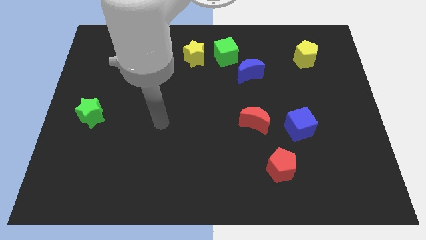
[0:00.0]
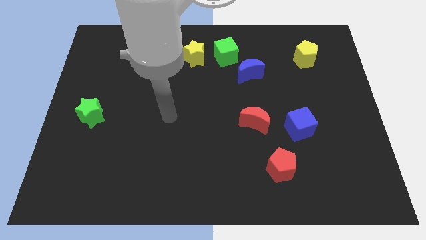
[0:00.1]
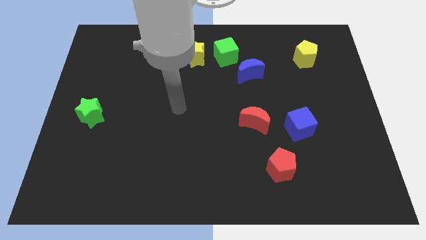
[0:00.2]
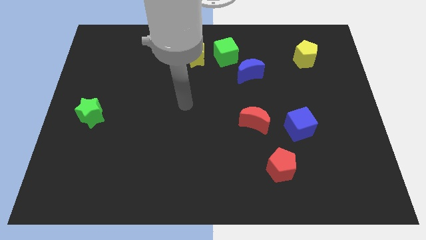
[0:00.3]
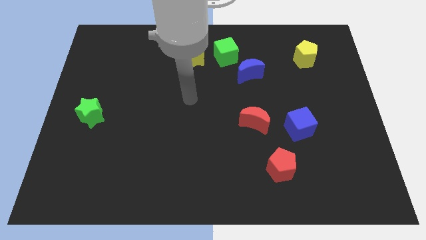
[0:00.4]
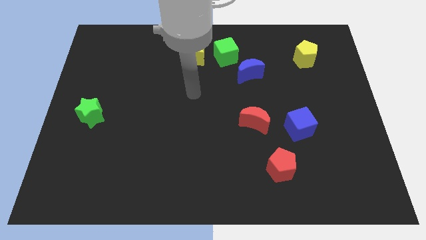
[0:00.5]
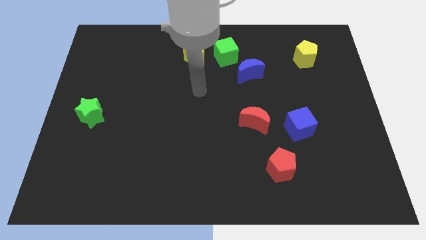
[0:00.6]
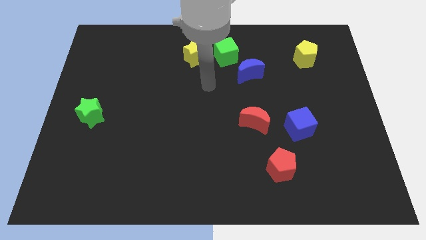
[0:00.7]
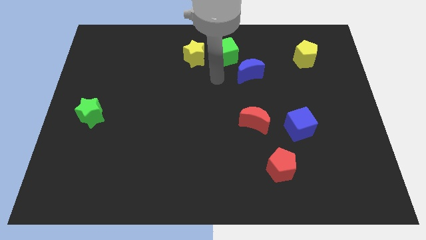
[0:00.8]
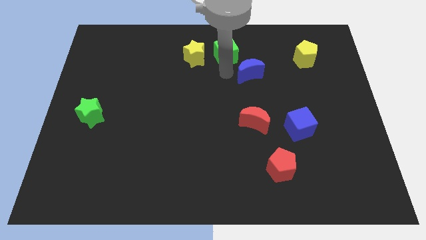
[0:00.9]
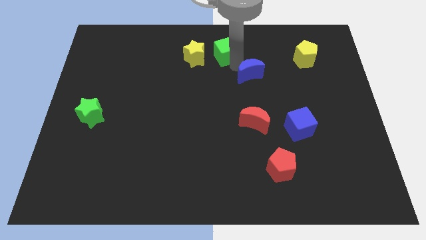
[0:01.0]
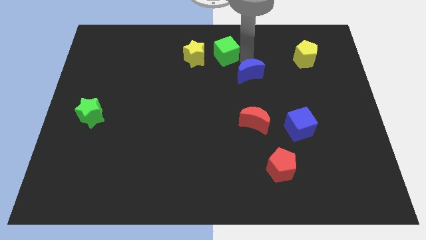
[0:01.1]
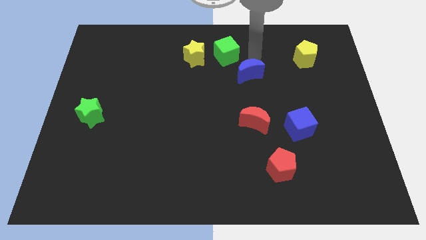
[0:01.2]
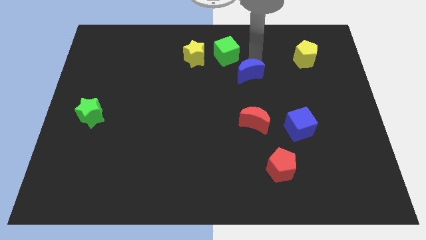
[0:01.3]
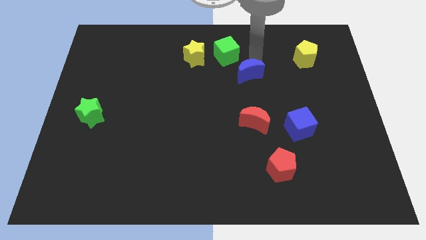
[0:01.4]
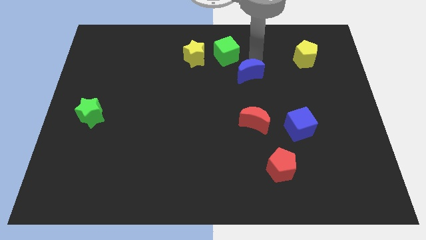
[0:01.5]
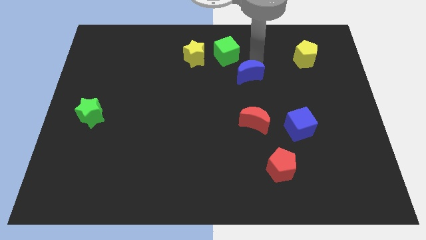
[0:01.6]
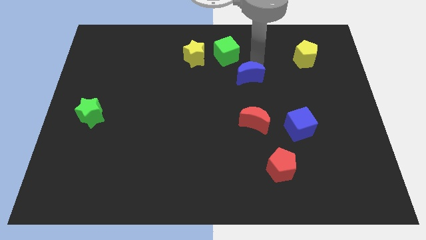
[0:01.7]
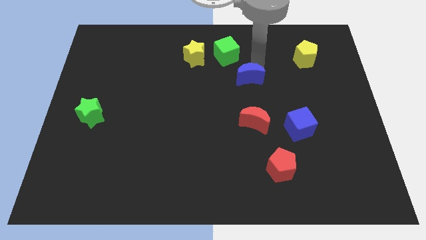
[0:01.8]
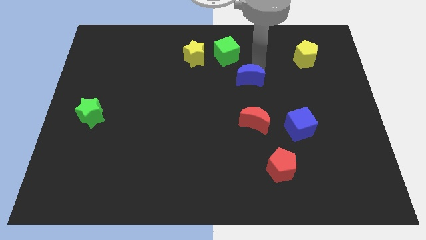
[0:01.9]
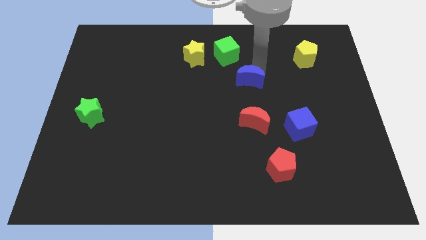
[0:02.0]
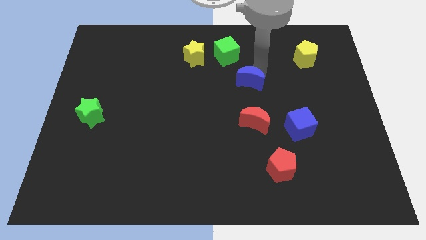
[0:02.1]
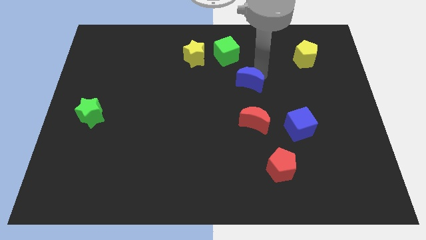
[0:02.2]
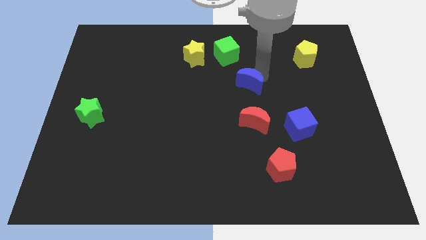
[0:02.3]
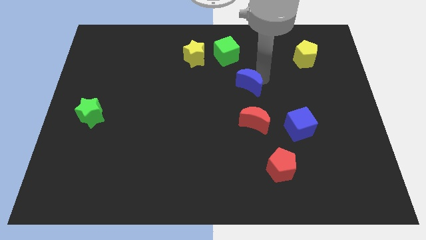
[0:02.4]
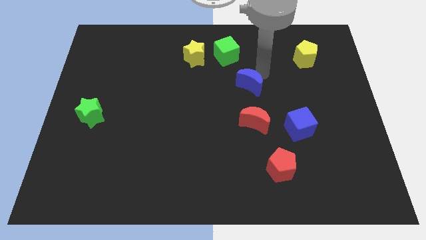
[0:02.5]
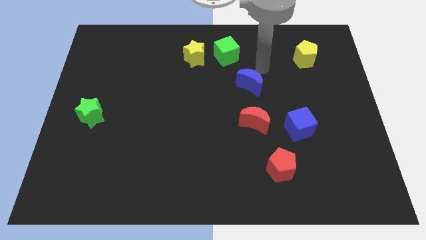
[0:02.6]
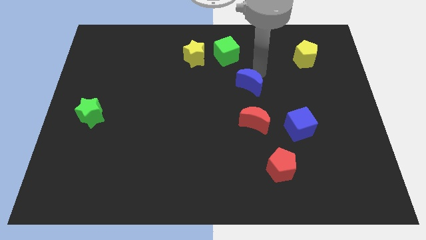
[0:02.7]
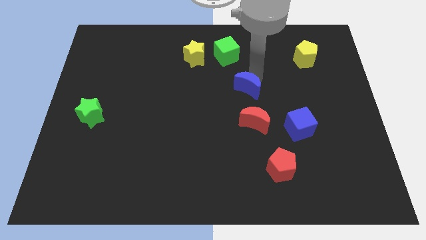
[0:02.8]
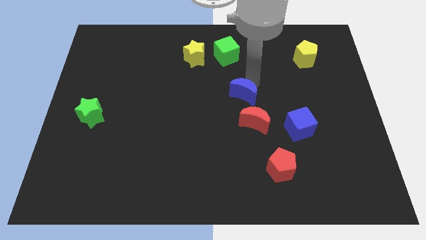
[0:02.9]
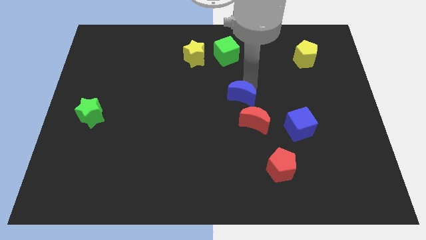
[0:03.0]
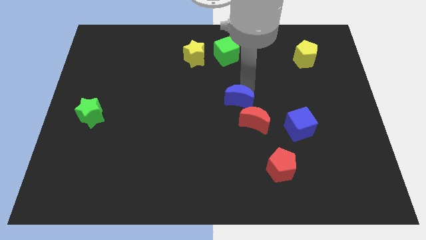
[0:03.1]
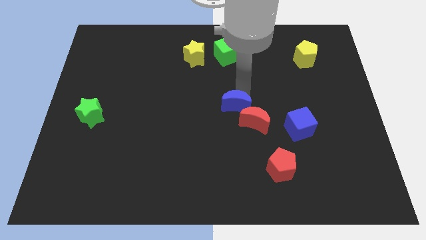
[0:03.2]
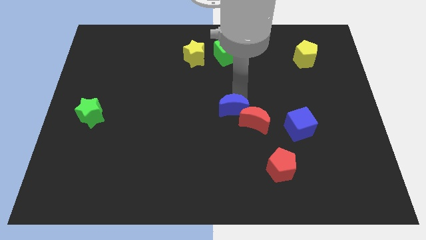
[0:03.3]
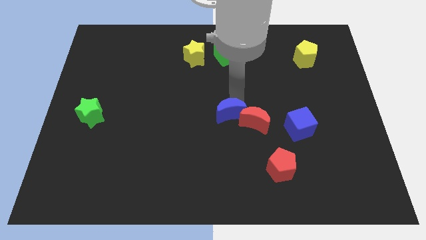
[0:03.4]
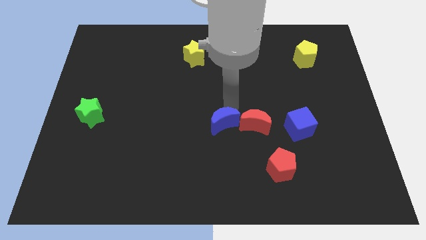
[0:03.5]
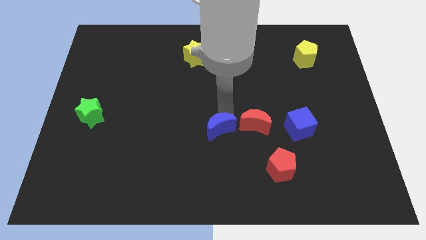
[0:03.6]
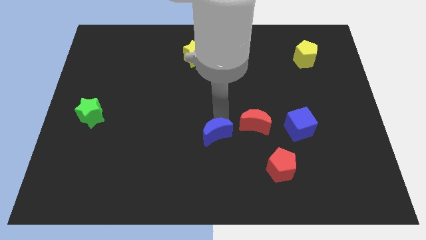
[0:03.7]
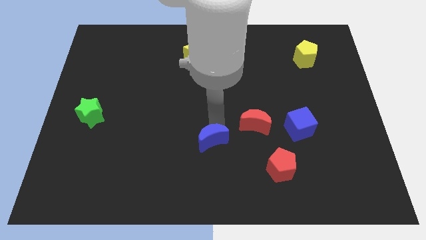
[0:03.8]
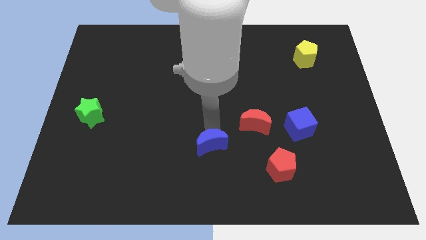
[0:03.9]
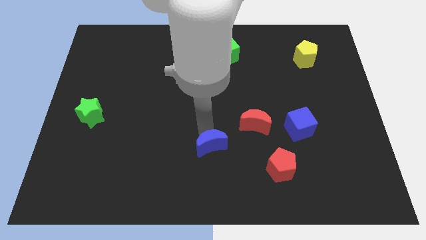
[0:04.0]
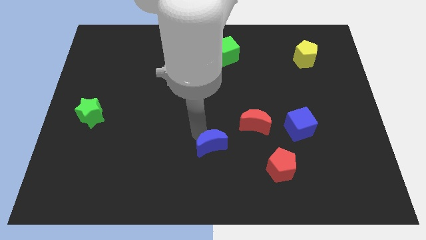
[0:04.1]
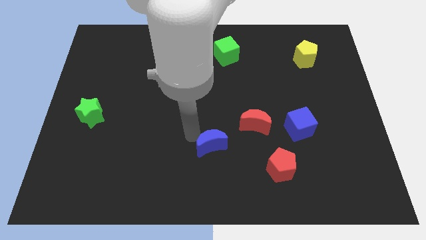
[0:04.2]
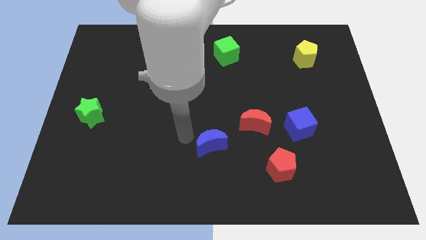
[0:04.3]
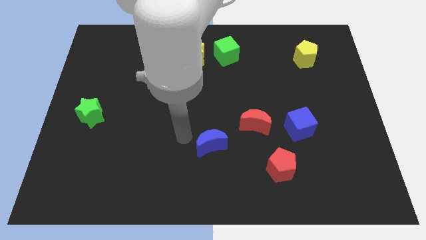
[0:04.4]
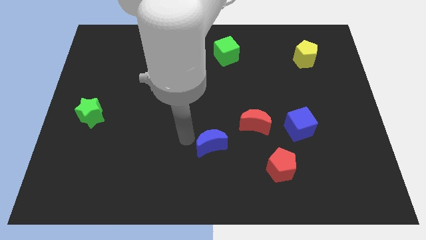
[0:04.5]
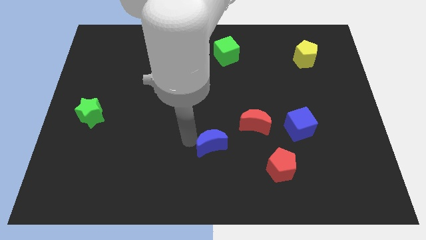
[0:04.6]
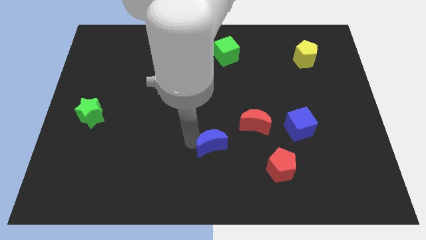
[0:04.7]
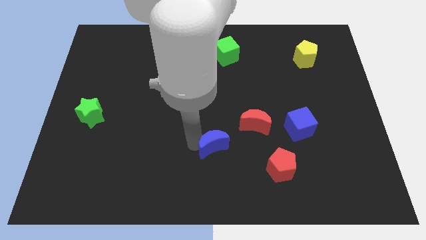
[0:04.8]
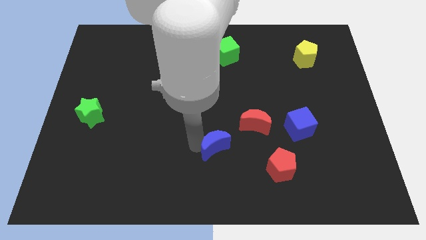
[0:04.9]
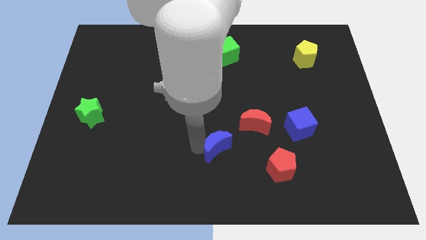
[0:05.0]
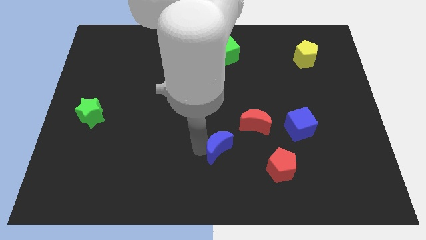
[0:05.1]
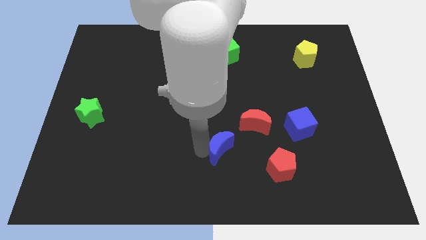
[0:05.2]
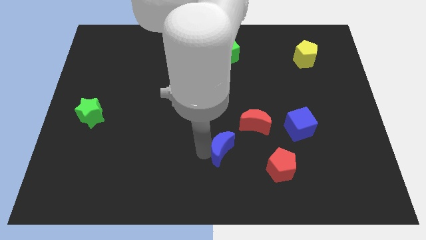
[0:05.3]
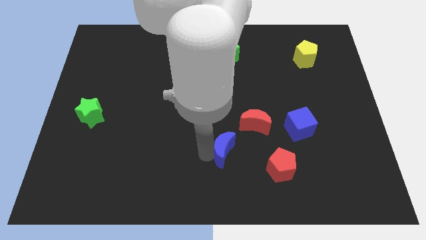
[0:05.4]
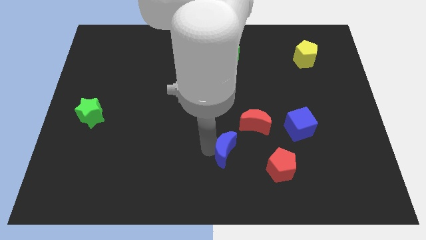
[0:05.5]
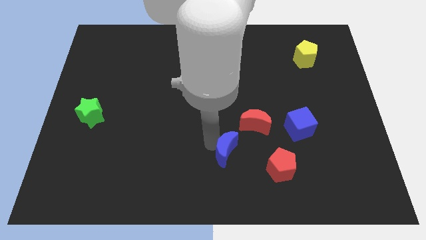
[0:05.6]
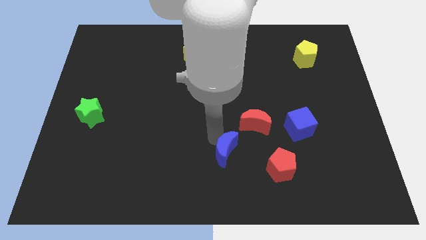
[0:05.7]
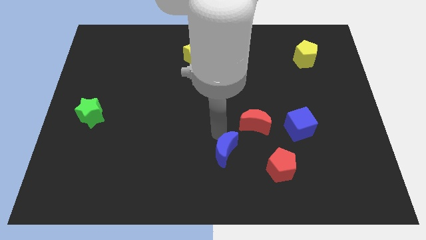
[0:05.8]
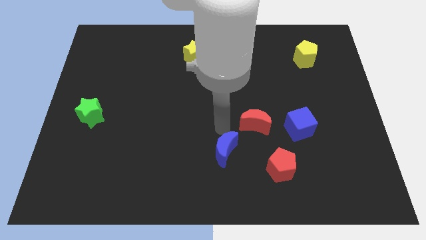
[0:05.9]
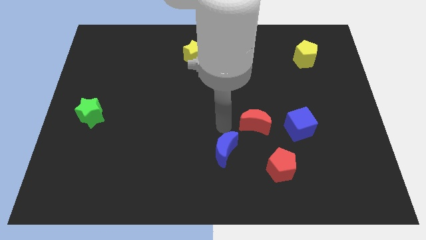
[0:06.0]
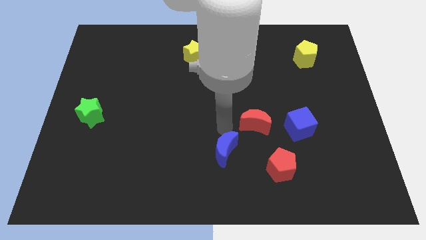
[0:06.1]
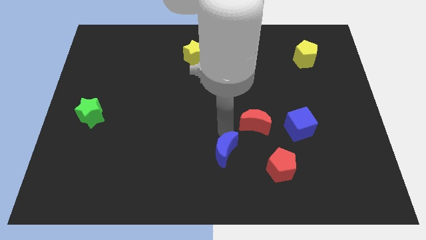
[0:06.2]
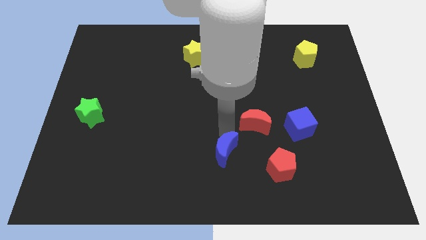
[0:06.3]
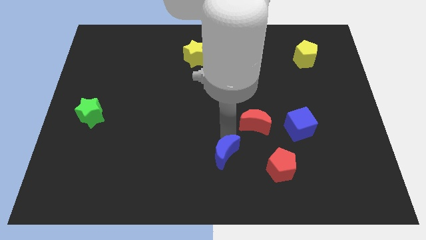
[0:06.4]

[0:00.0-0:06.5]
slide the blue moon to the bottom side
